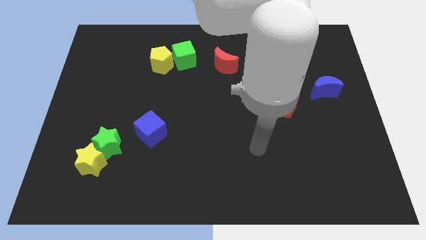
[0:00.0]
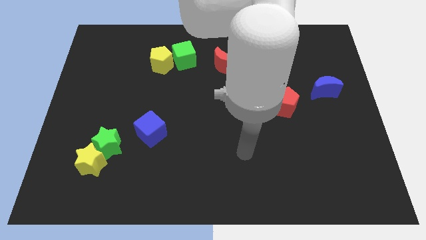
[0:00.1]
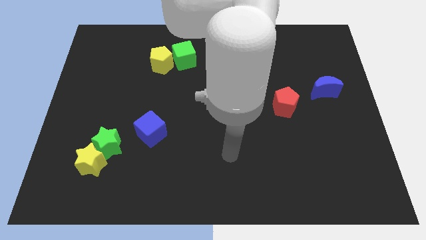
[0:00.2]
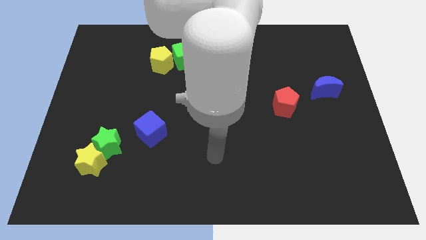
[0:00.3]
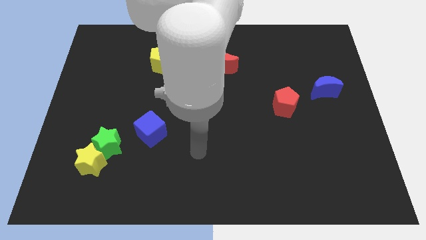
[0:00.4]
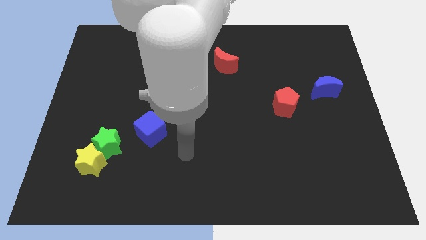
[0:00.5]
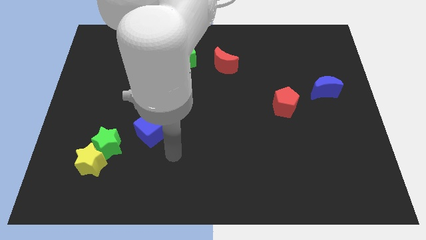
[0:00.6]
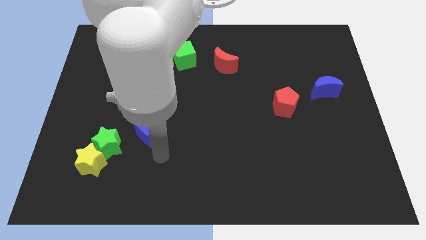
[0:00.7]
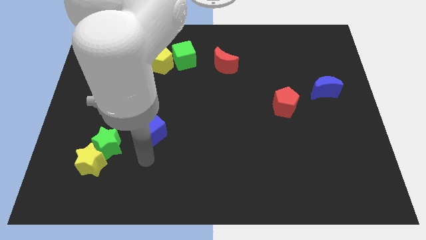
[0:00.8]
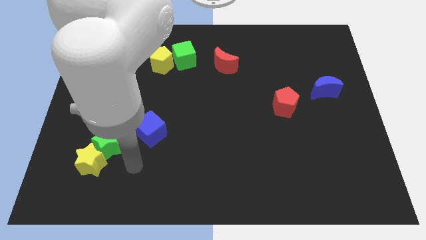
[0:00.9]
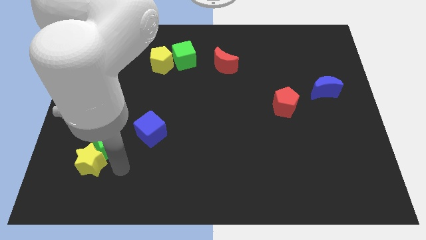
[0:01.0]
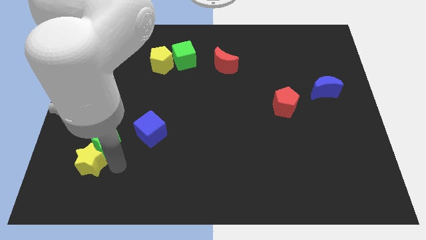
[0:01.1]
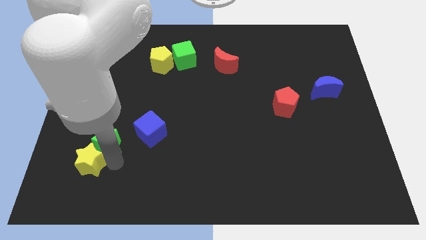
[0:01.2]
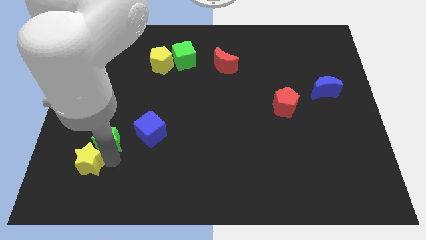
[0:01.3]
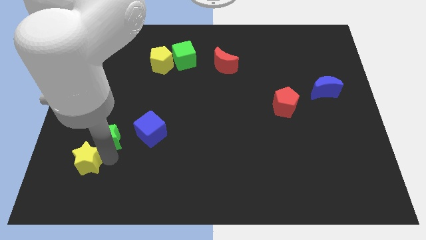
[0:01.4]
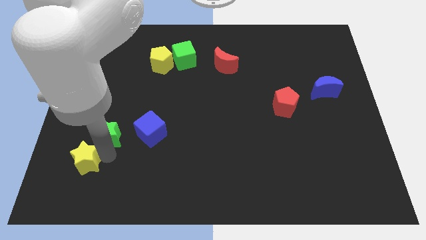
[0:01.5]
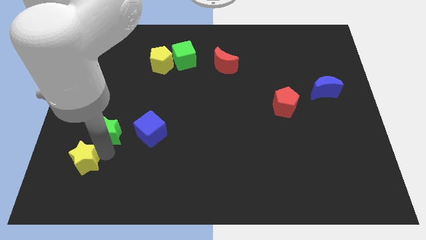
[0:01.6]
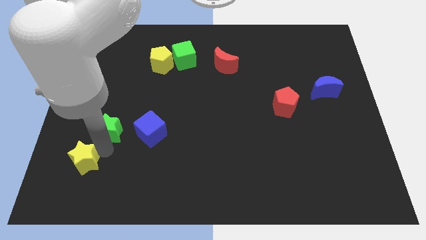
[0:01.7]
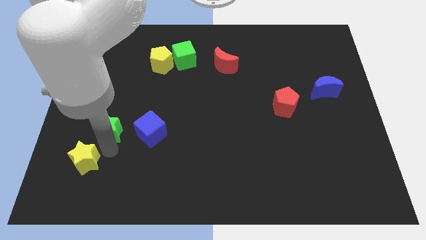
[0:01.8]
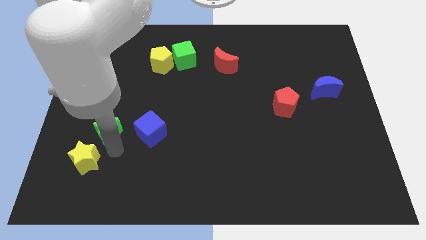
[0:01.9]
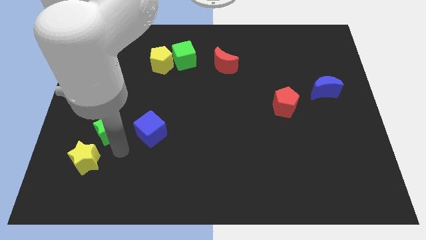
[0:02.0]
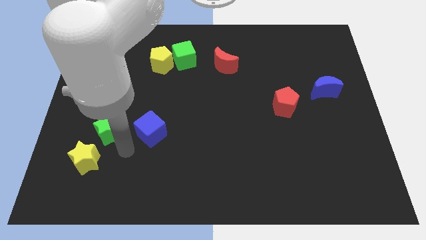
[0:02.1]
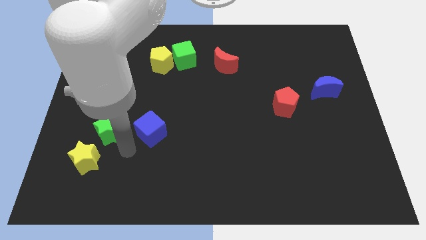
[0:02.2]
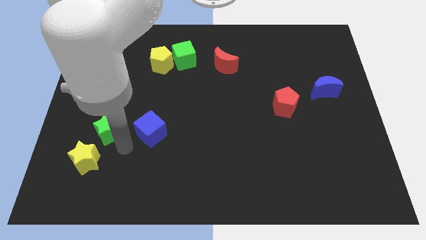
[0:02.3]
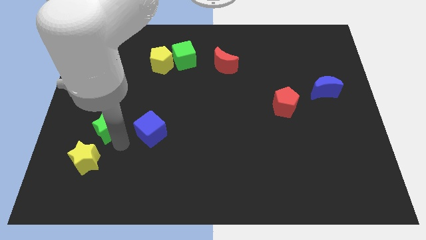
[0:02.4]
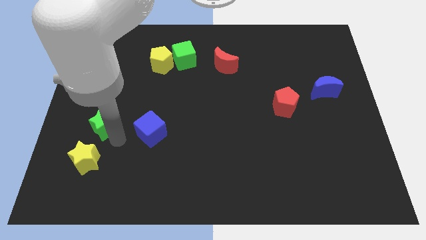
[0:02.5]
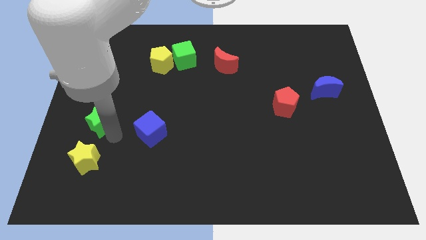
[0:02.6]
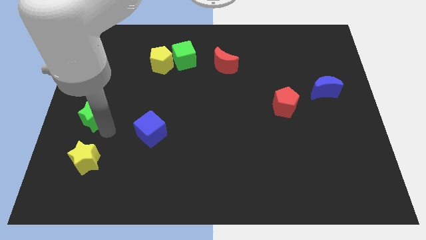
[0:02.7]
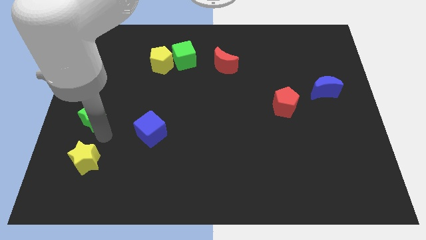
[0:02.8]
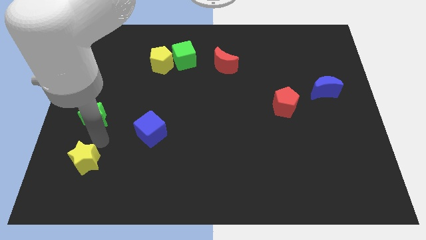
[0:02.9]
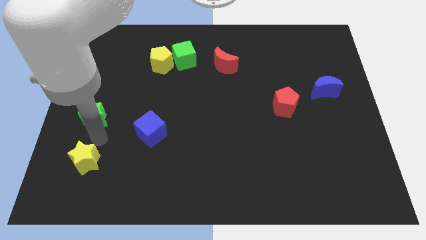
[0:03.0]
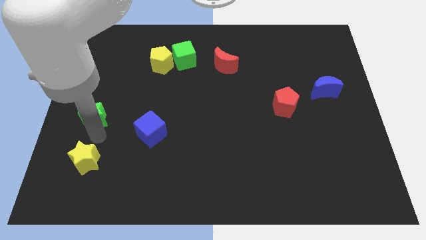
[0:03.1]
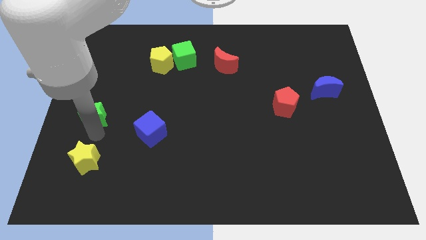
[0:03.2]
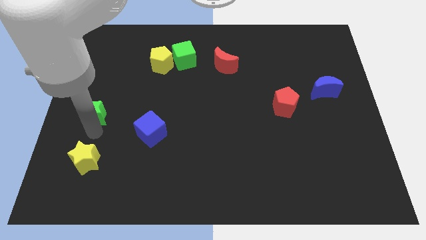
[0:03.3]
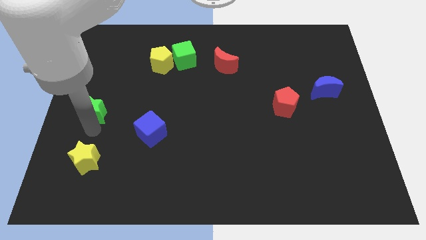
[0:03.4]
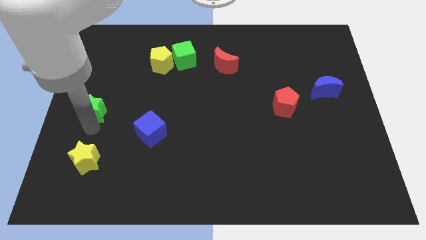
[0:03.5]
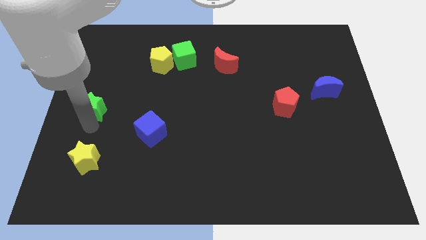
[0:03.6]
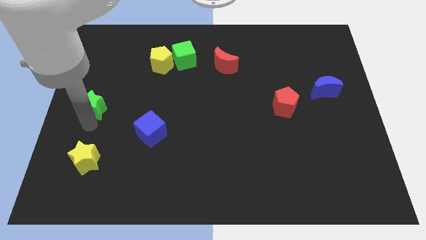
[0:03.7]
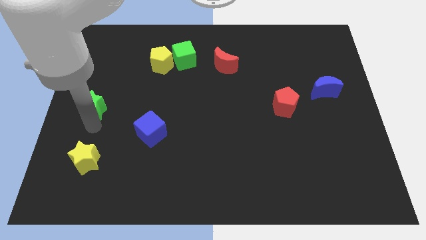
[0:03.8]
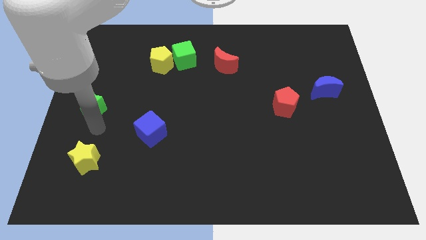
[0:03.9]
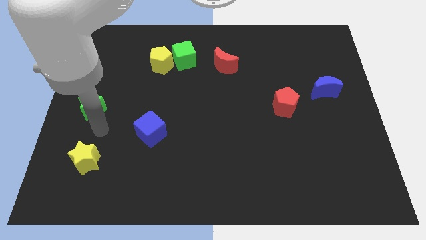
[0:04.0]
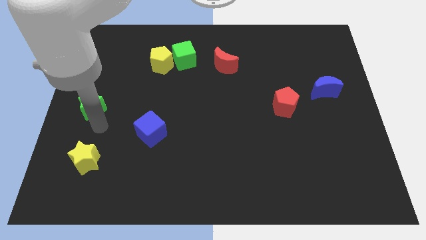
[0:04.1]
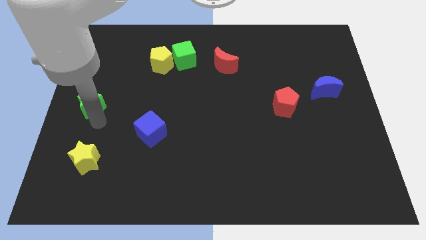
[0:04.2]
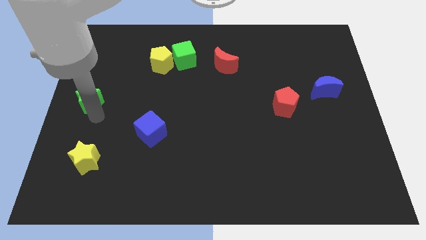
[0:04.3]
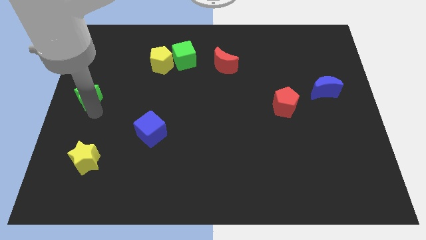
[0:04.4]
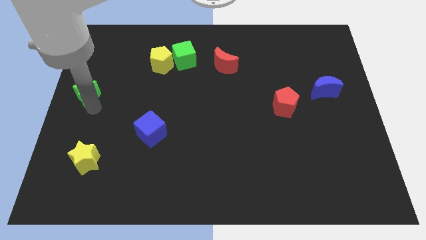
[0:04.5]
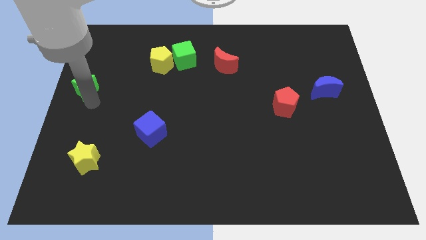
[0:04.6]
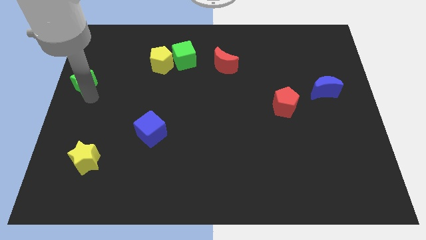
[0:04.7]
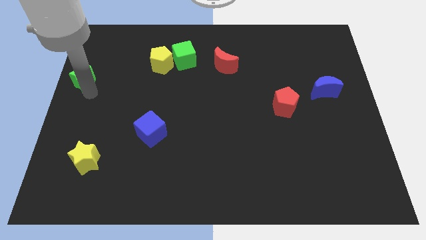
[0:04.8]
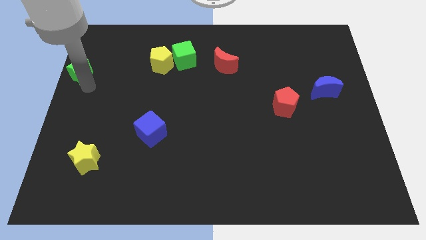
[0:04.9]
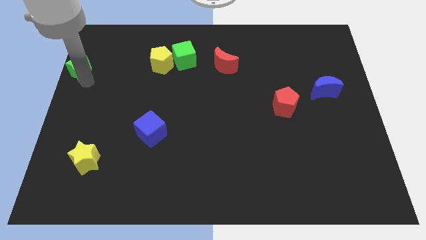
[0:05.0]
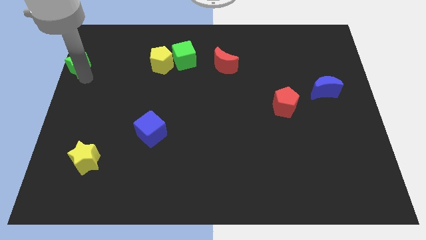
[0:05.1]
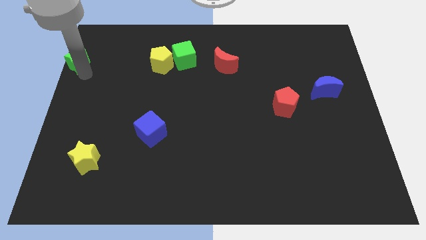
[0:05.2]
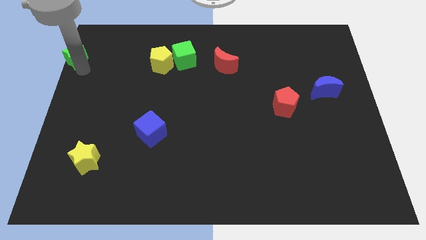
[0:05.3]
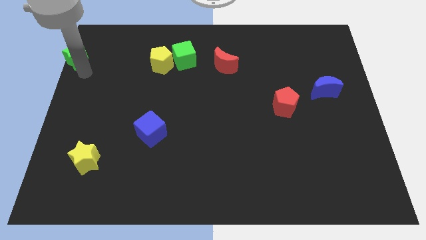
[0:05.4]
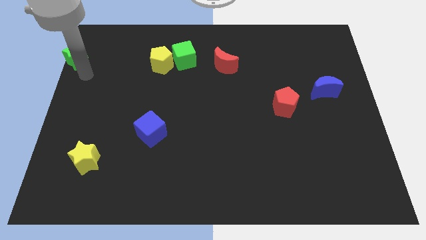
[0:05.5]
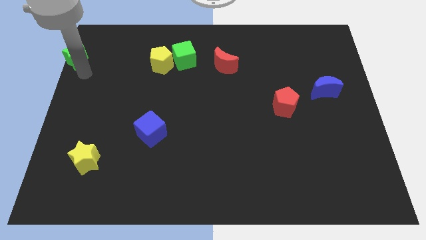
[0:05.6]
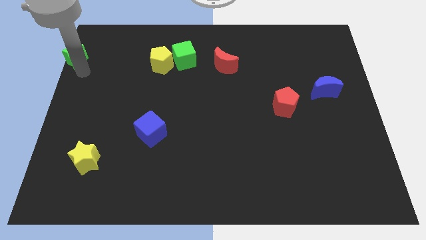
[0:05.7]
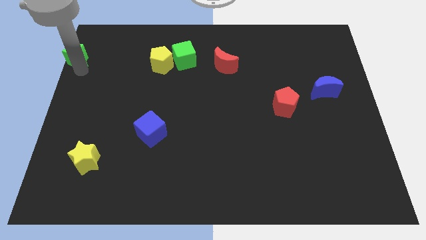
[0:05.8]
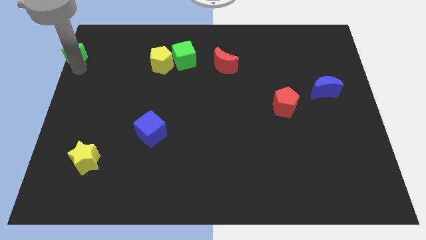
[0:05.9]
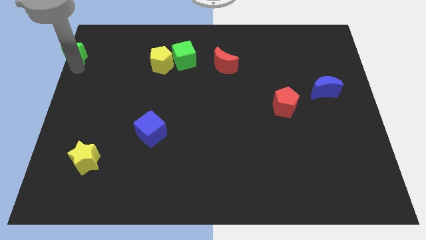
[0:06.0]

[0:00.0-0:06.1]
slide the green star to the top left of the board

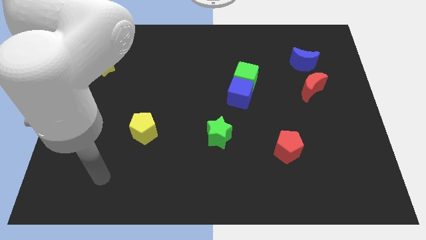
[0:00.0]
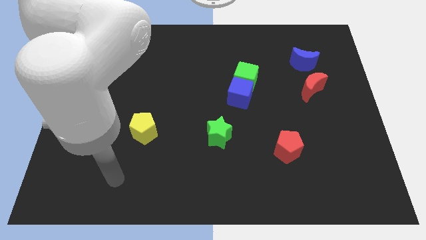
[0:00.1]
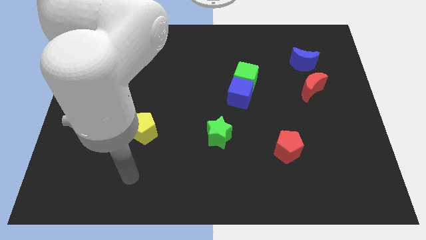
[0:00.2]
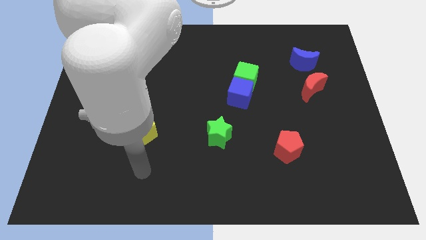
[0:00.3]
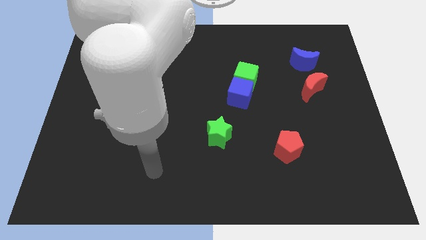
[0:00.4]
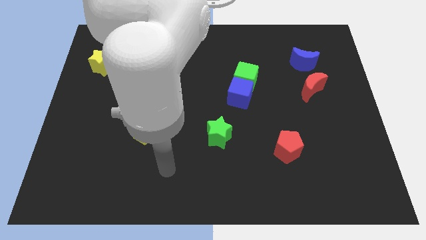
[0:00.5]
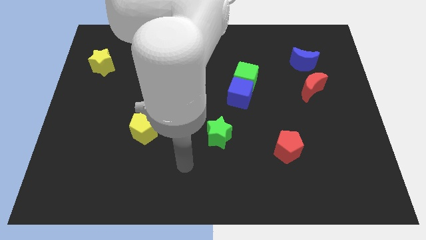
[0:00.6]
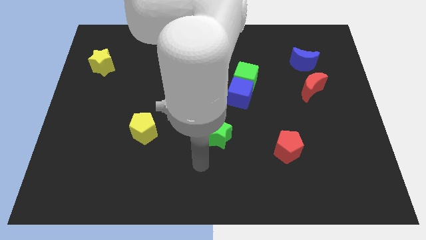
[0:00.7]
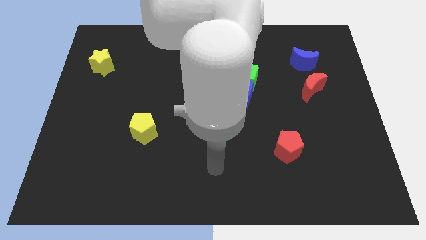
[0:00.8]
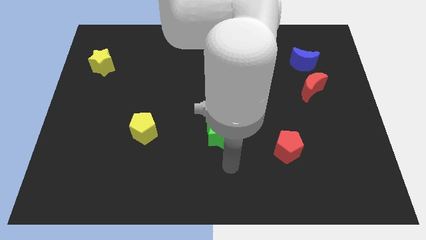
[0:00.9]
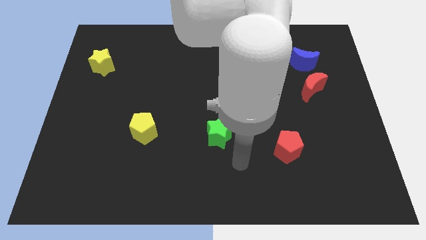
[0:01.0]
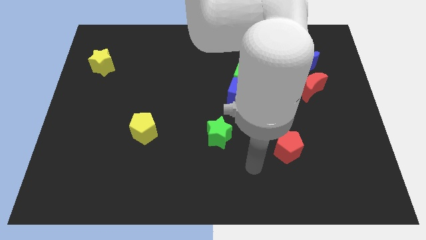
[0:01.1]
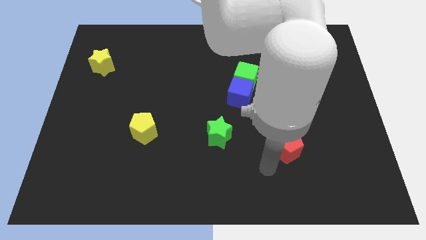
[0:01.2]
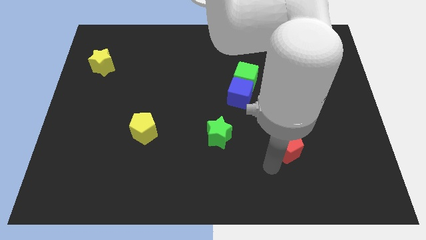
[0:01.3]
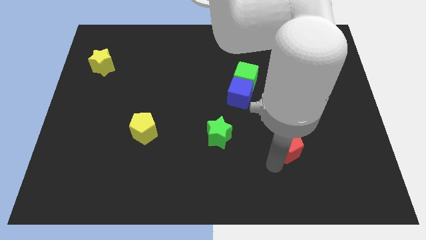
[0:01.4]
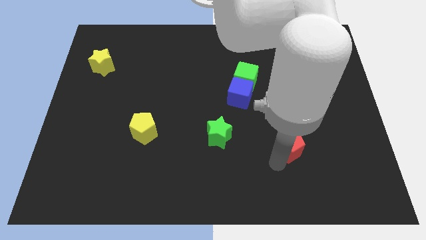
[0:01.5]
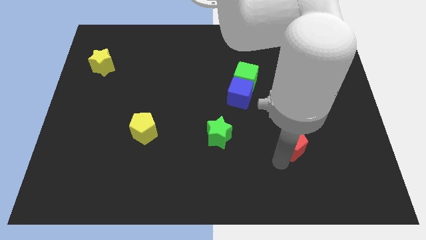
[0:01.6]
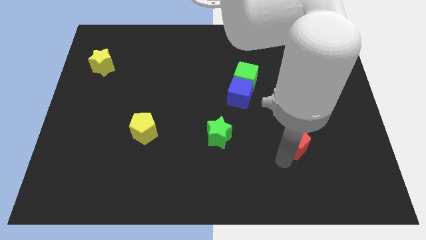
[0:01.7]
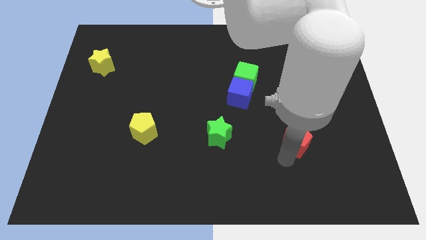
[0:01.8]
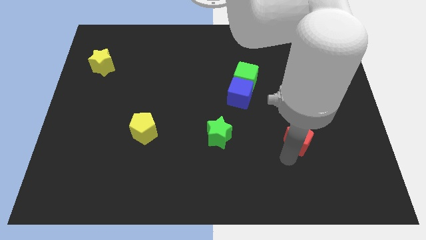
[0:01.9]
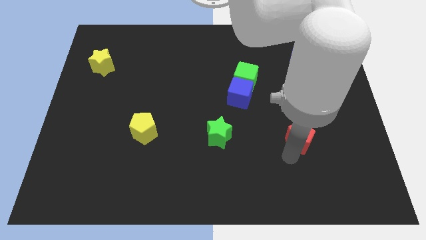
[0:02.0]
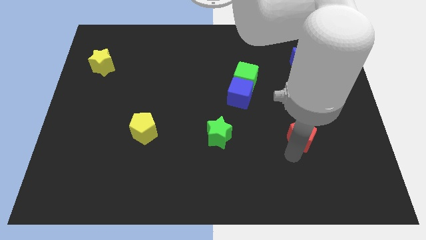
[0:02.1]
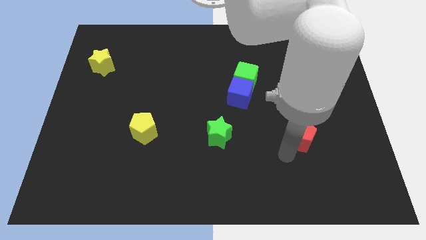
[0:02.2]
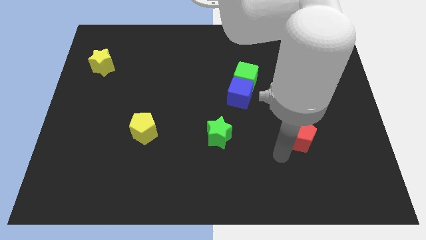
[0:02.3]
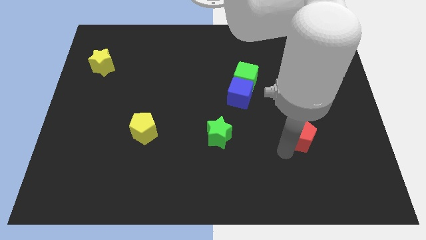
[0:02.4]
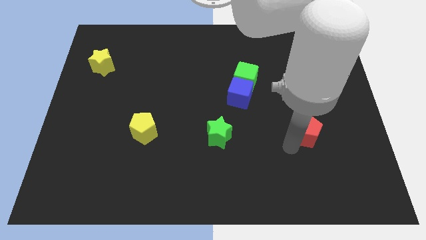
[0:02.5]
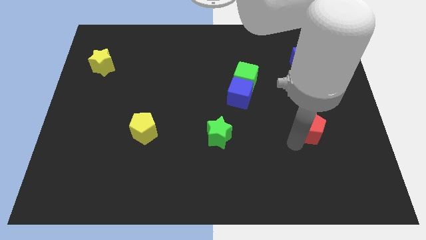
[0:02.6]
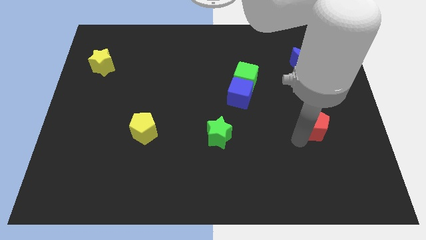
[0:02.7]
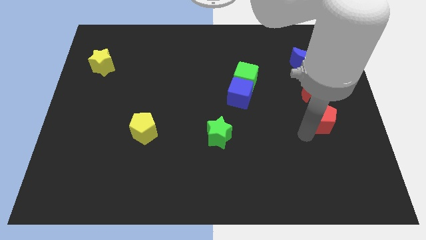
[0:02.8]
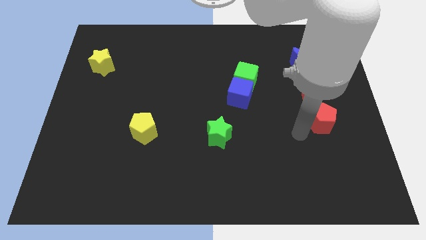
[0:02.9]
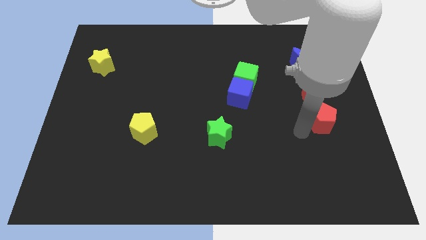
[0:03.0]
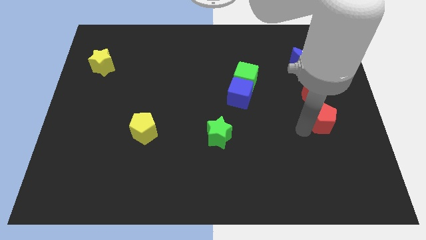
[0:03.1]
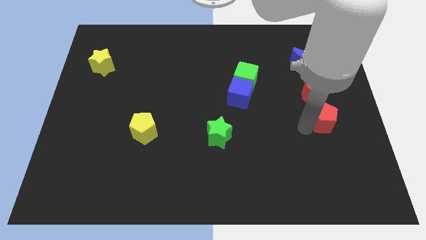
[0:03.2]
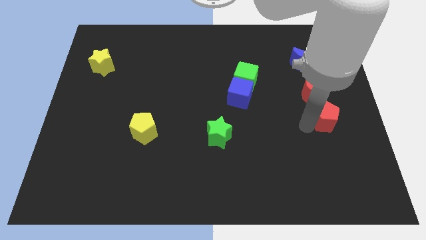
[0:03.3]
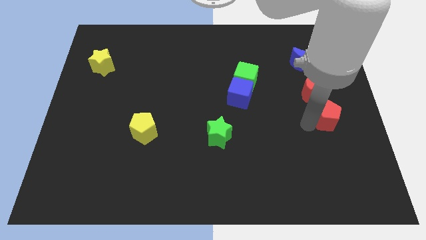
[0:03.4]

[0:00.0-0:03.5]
slide the red pentagon to the right side of the board
